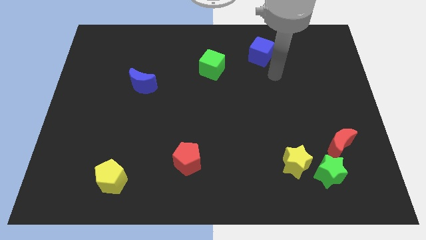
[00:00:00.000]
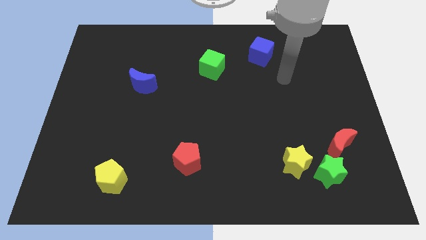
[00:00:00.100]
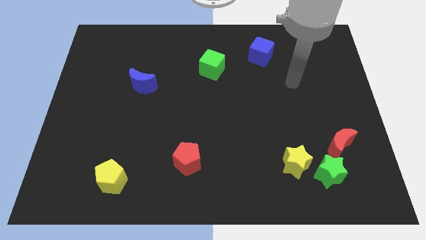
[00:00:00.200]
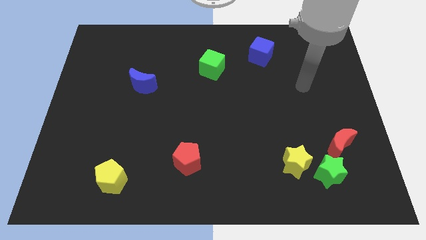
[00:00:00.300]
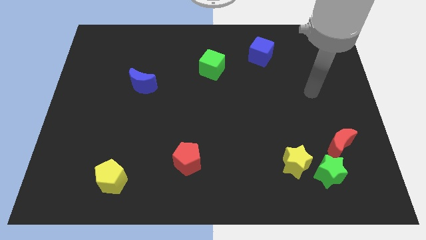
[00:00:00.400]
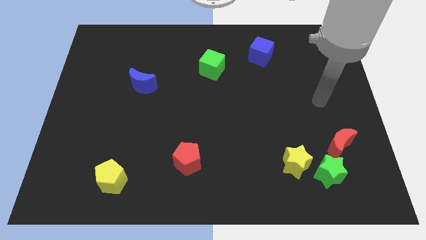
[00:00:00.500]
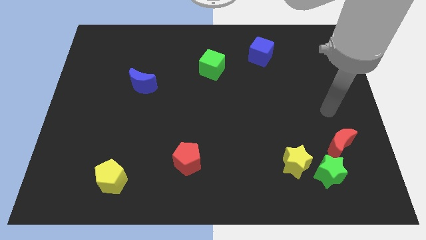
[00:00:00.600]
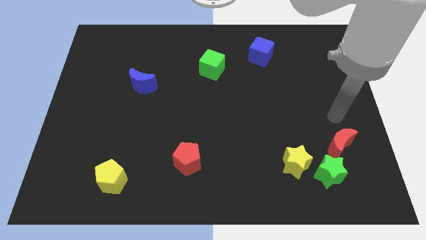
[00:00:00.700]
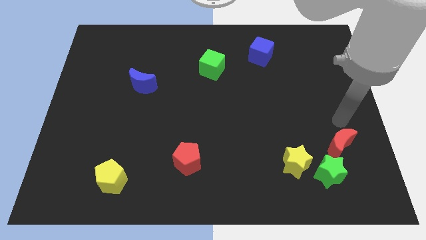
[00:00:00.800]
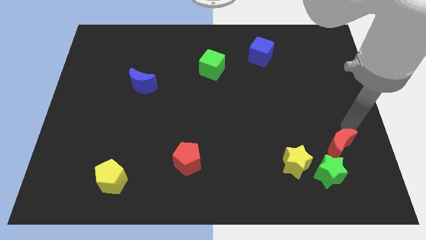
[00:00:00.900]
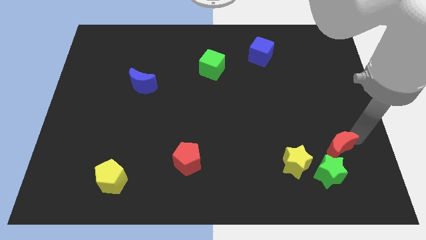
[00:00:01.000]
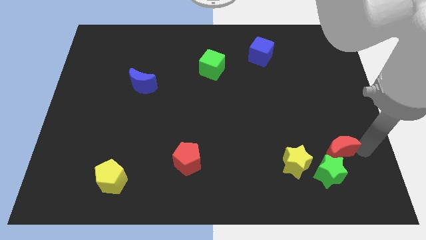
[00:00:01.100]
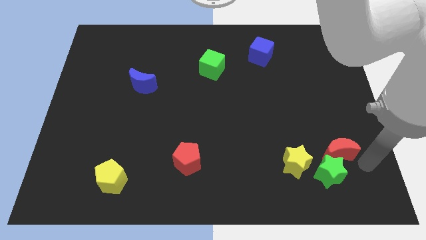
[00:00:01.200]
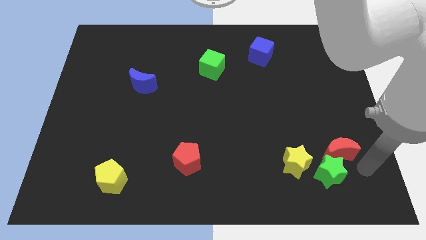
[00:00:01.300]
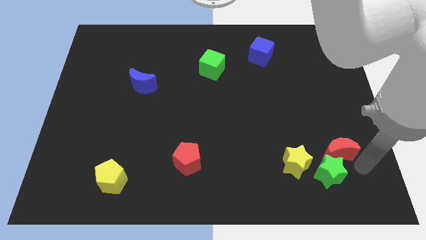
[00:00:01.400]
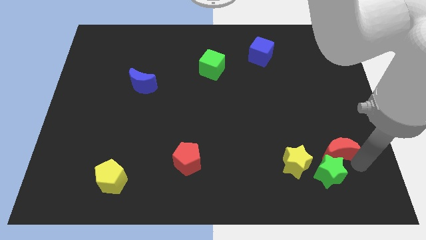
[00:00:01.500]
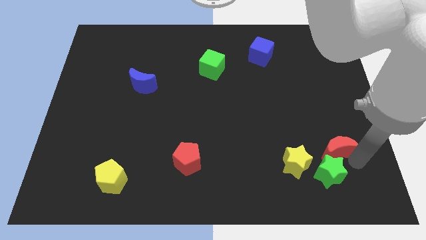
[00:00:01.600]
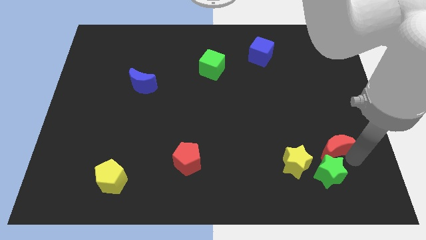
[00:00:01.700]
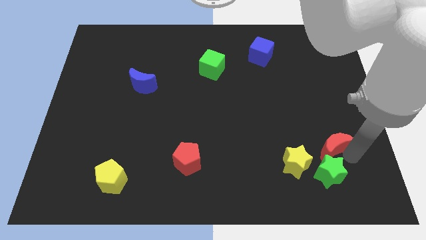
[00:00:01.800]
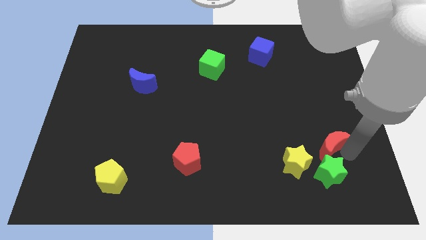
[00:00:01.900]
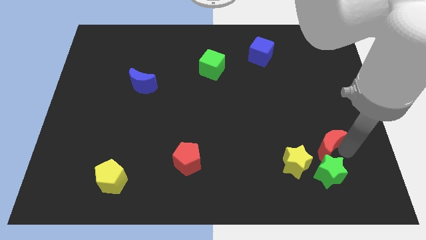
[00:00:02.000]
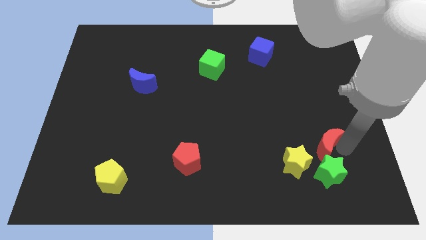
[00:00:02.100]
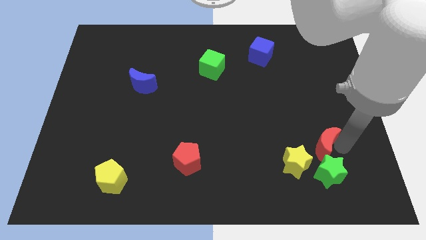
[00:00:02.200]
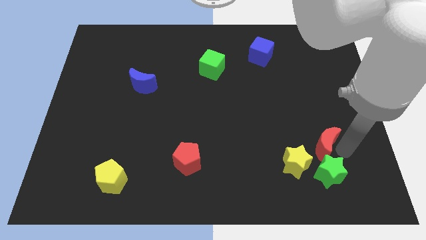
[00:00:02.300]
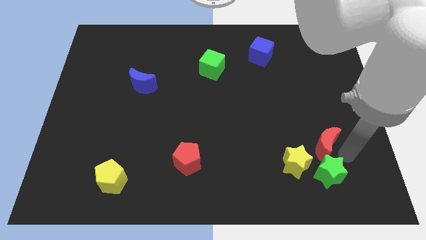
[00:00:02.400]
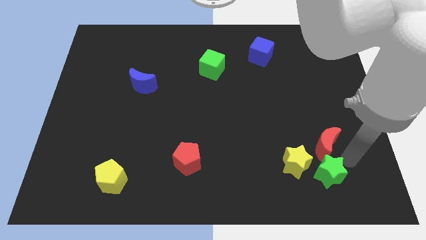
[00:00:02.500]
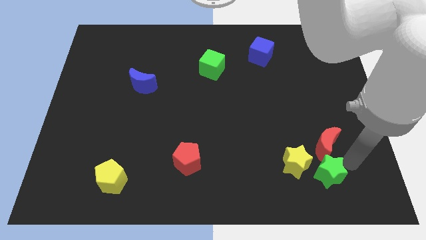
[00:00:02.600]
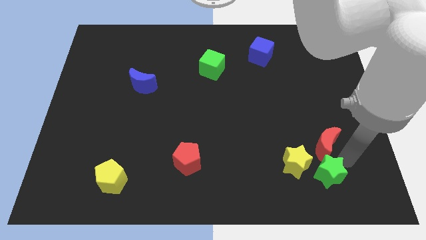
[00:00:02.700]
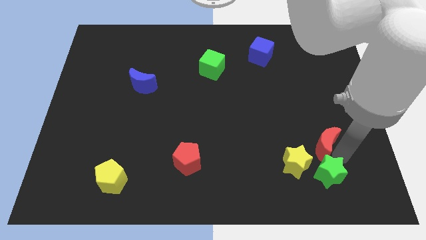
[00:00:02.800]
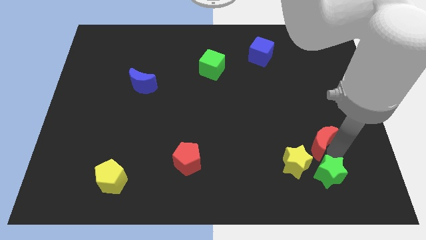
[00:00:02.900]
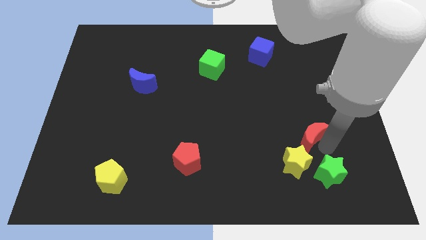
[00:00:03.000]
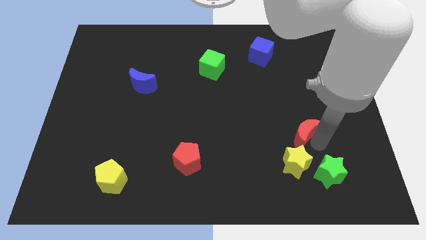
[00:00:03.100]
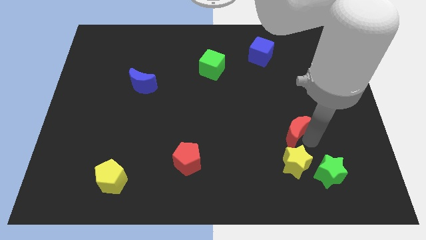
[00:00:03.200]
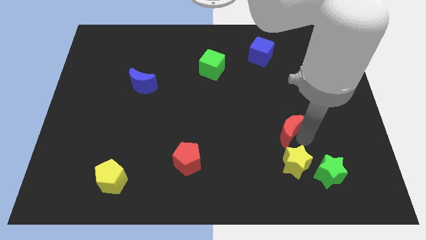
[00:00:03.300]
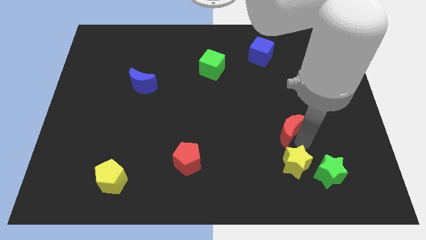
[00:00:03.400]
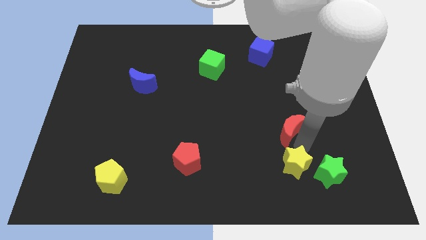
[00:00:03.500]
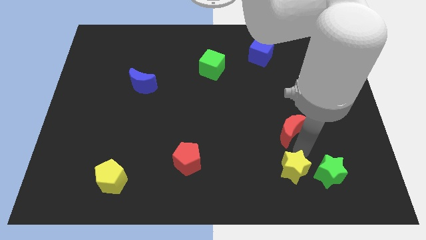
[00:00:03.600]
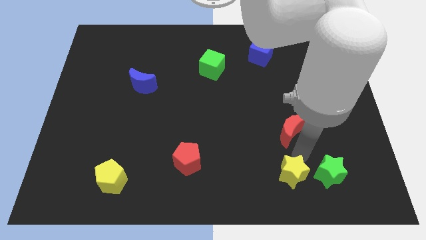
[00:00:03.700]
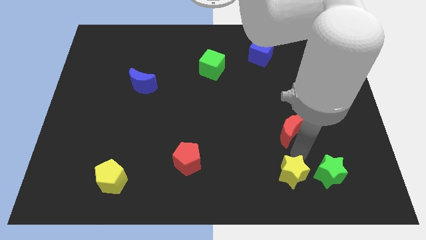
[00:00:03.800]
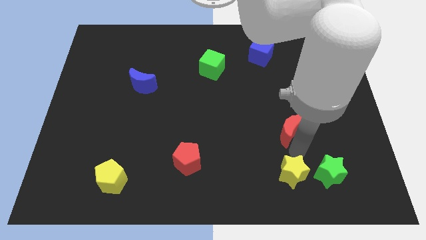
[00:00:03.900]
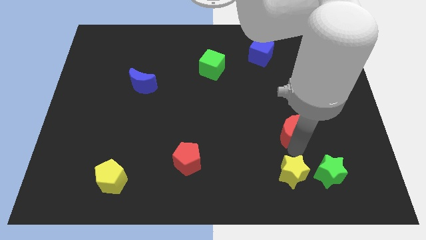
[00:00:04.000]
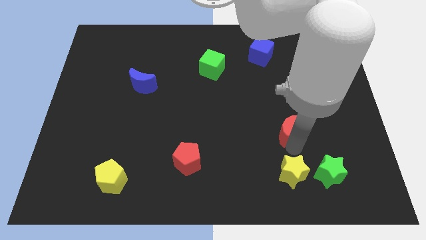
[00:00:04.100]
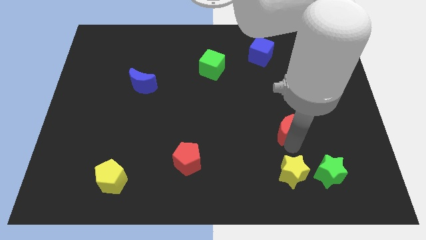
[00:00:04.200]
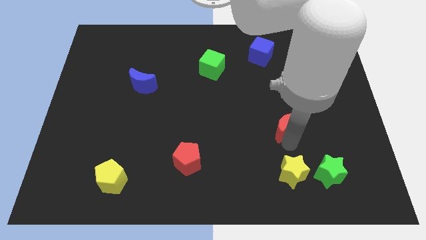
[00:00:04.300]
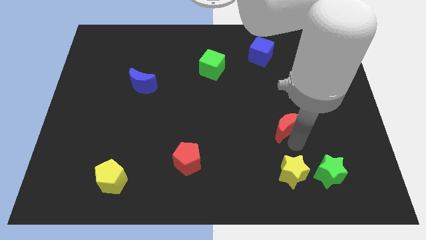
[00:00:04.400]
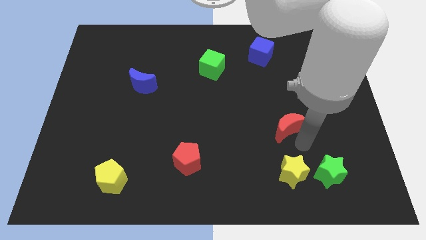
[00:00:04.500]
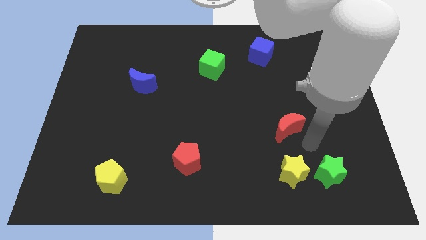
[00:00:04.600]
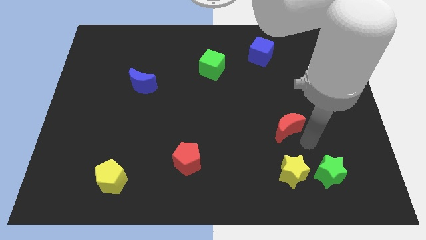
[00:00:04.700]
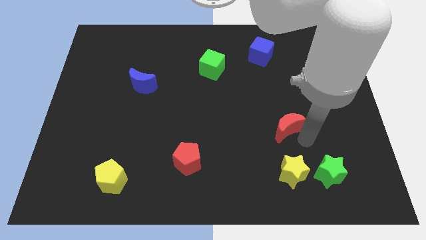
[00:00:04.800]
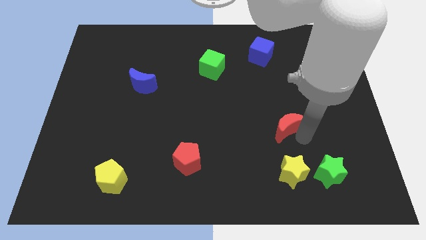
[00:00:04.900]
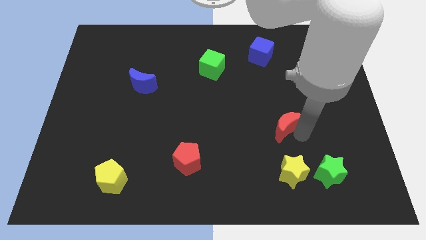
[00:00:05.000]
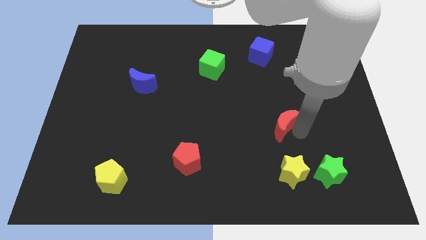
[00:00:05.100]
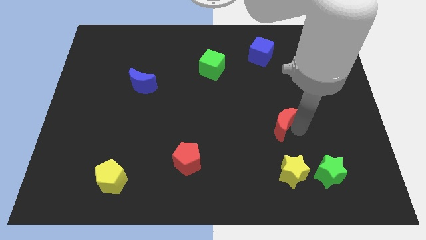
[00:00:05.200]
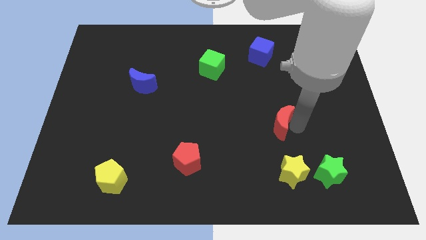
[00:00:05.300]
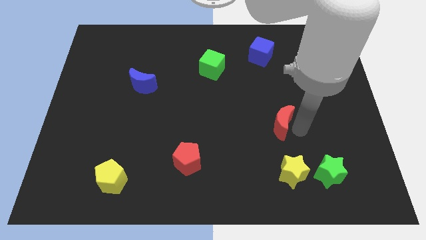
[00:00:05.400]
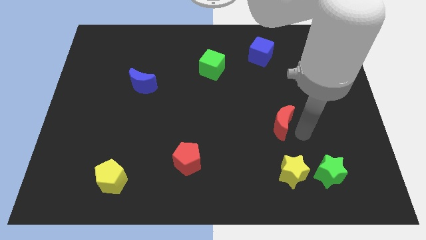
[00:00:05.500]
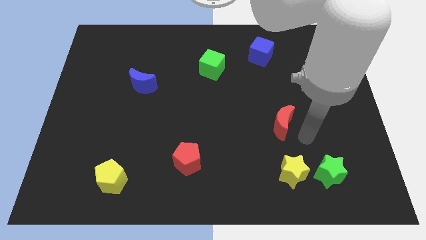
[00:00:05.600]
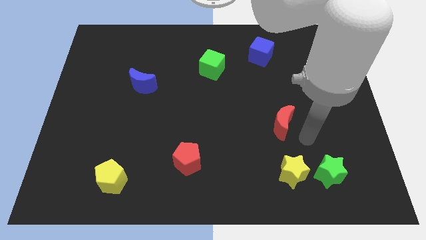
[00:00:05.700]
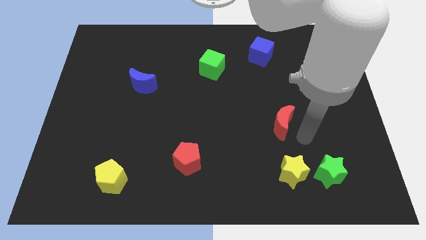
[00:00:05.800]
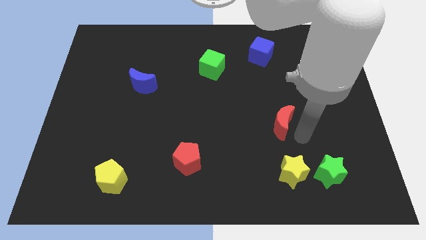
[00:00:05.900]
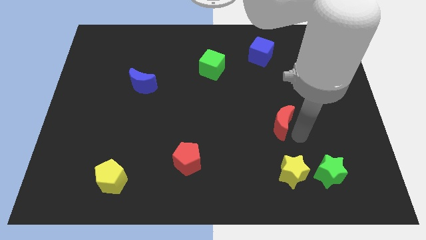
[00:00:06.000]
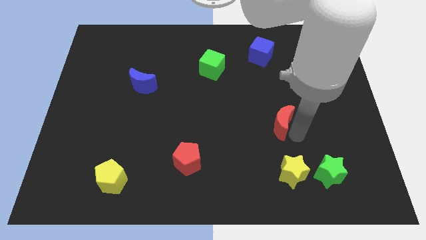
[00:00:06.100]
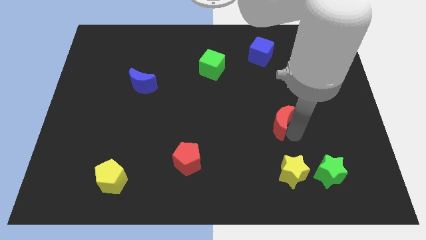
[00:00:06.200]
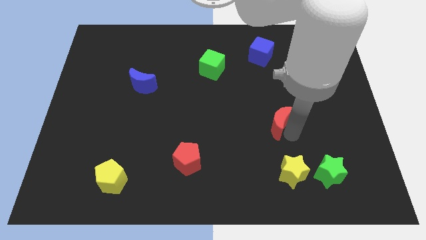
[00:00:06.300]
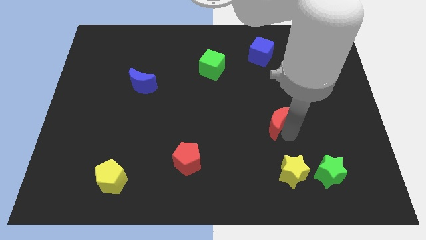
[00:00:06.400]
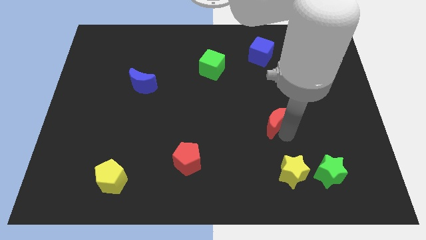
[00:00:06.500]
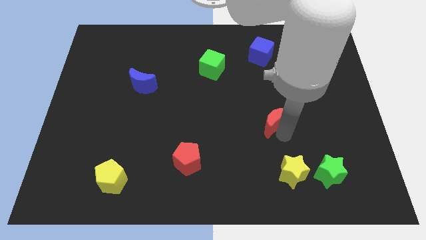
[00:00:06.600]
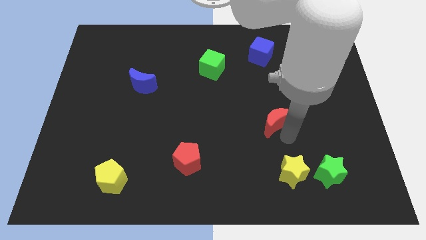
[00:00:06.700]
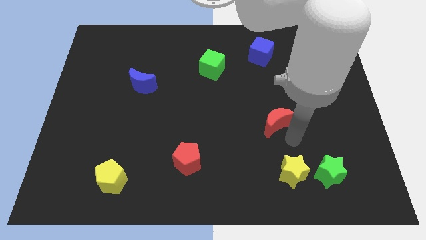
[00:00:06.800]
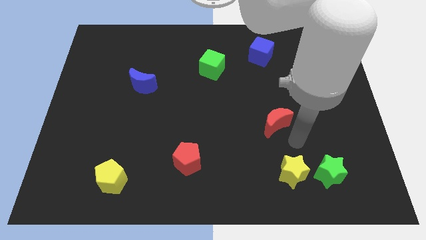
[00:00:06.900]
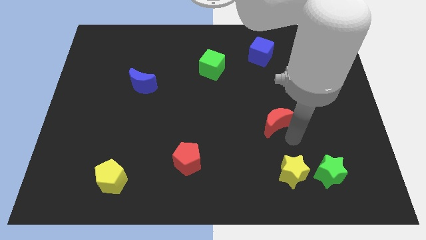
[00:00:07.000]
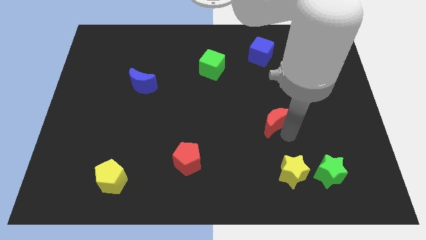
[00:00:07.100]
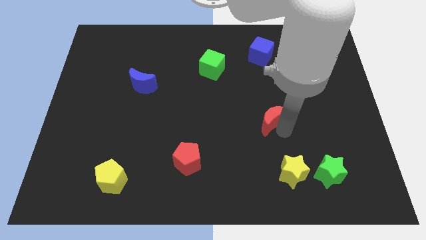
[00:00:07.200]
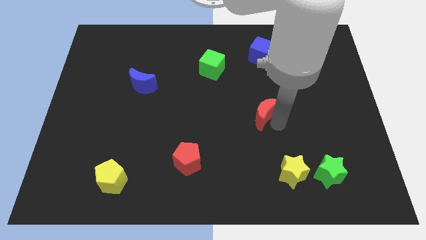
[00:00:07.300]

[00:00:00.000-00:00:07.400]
put the red moon to the center of the board
